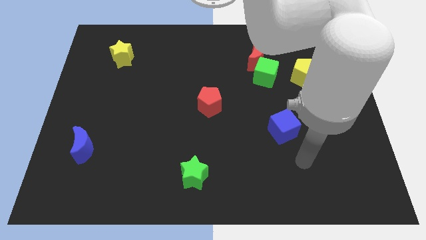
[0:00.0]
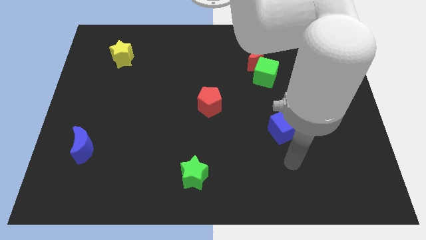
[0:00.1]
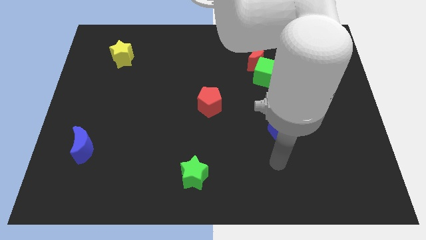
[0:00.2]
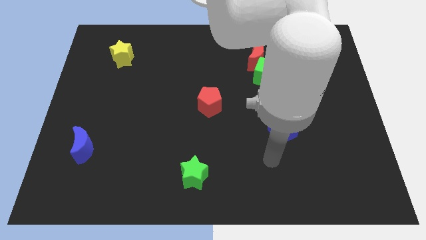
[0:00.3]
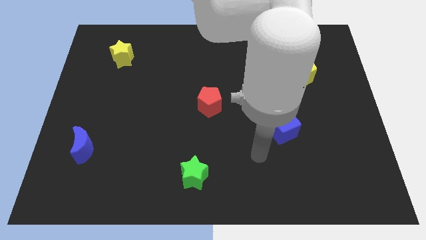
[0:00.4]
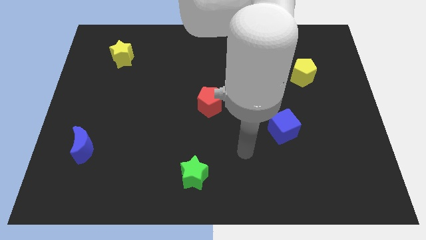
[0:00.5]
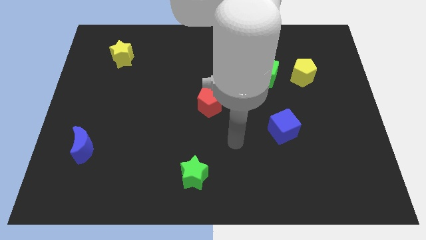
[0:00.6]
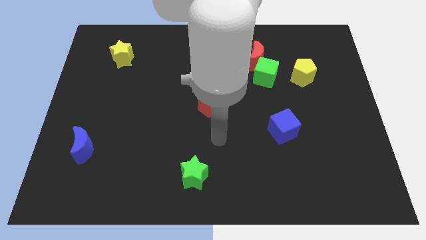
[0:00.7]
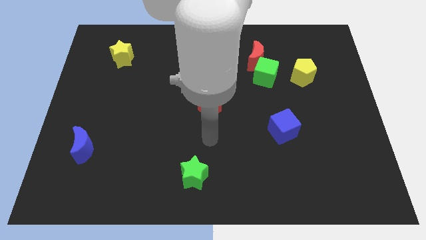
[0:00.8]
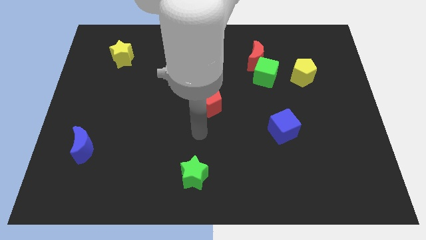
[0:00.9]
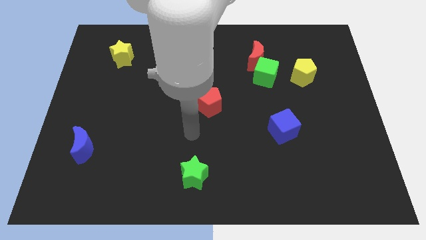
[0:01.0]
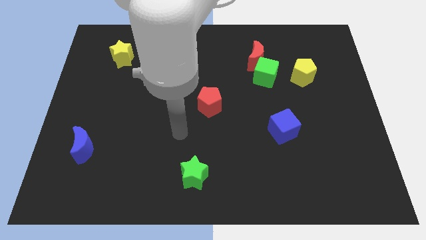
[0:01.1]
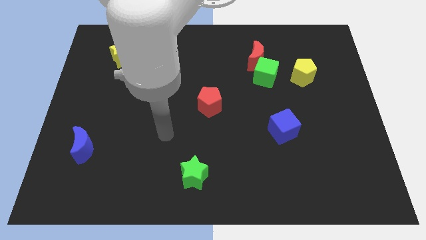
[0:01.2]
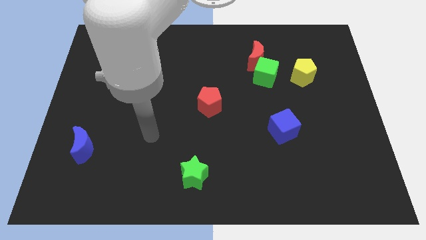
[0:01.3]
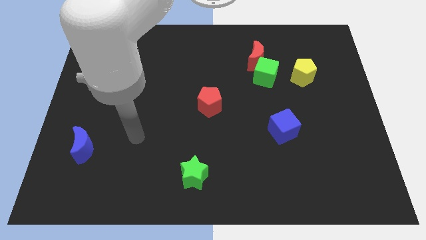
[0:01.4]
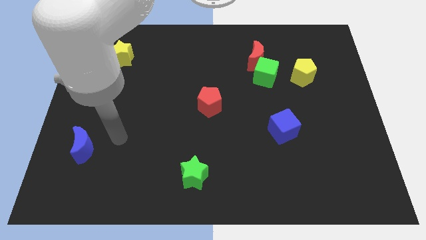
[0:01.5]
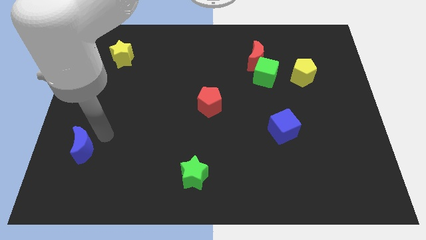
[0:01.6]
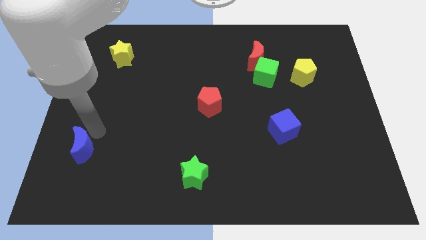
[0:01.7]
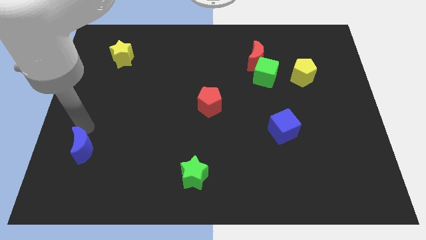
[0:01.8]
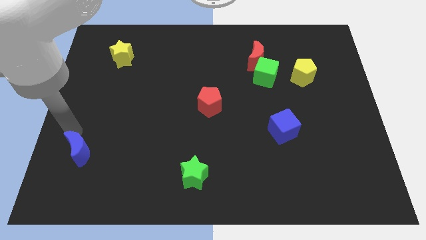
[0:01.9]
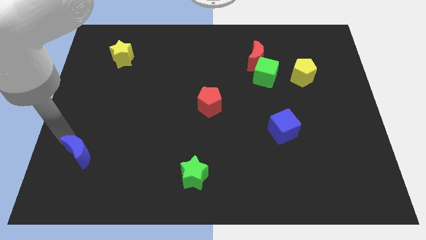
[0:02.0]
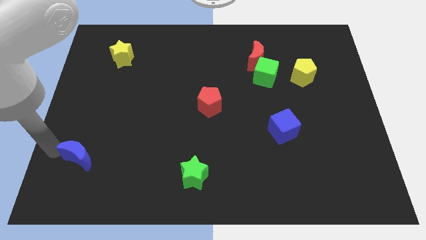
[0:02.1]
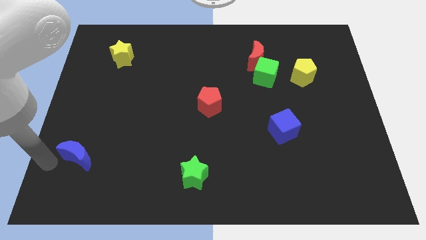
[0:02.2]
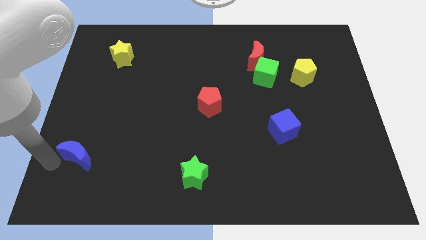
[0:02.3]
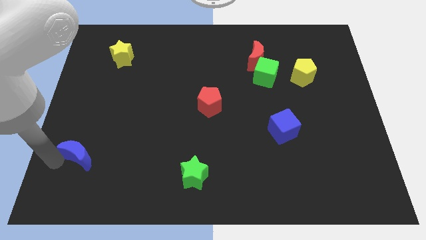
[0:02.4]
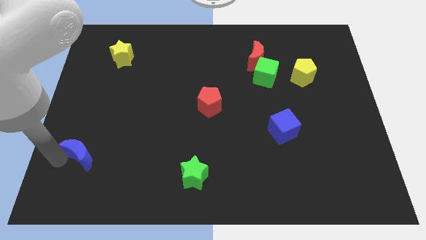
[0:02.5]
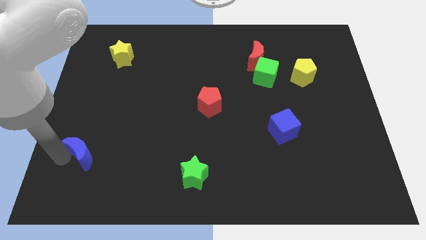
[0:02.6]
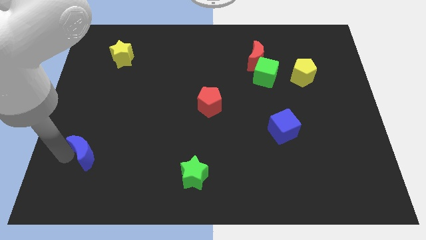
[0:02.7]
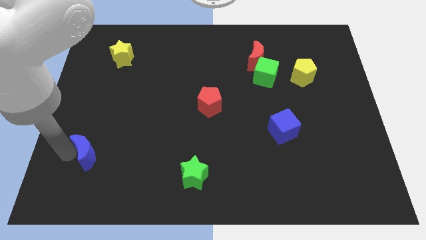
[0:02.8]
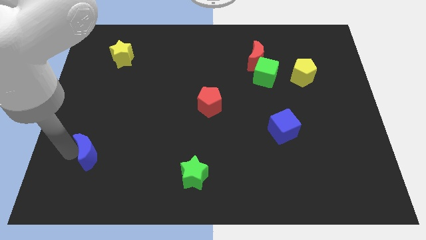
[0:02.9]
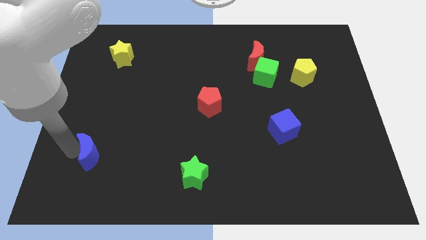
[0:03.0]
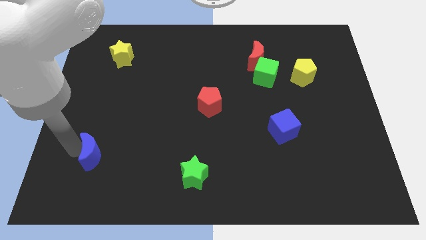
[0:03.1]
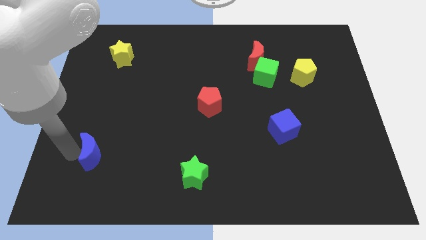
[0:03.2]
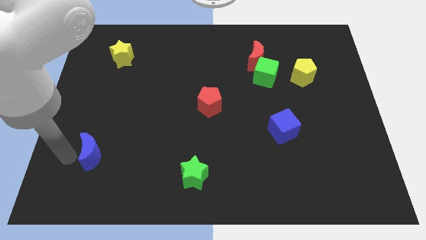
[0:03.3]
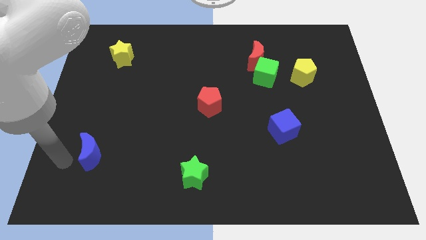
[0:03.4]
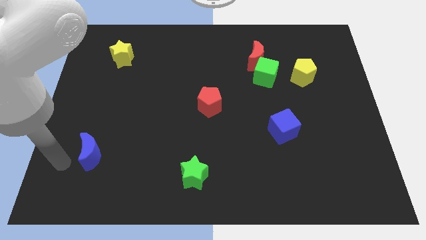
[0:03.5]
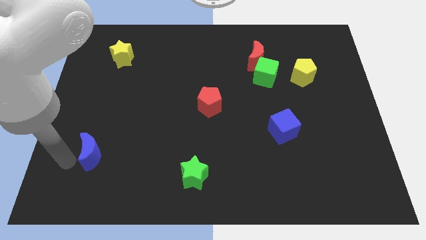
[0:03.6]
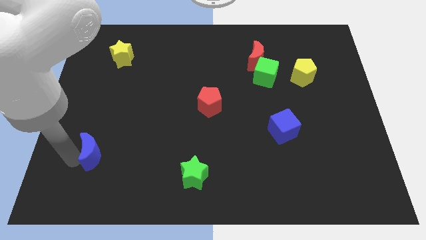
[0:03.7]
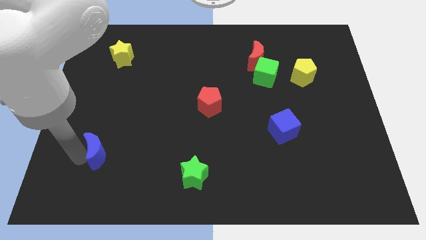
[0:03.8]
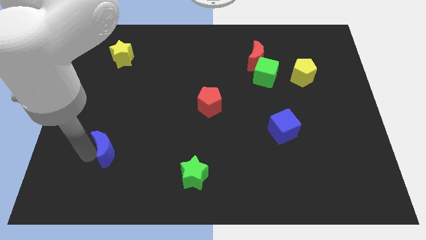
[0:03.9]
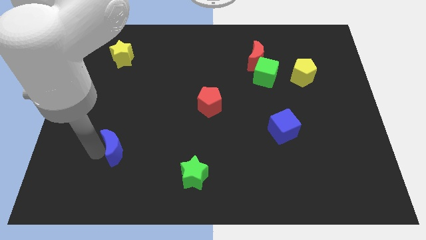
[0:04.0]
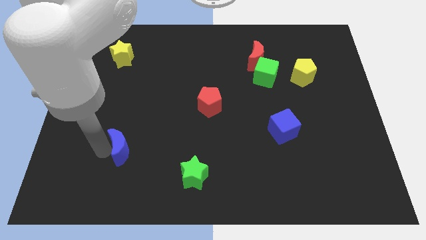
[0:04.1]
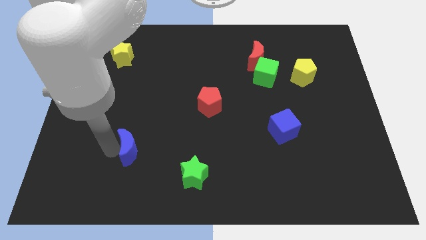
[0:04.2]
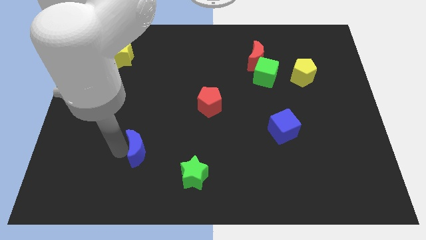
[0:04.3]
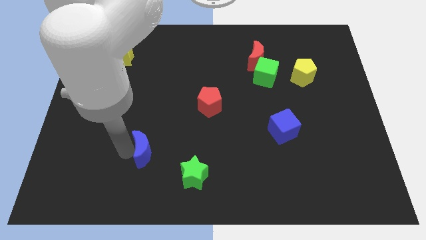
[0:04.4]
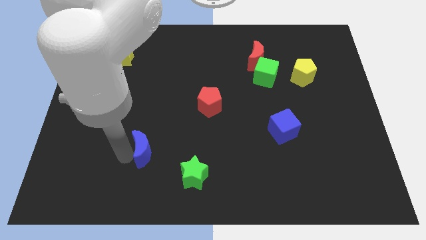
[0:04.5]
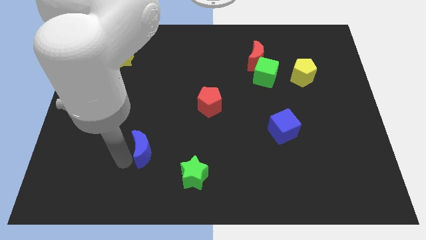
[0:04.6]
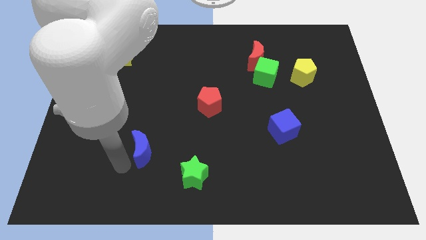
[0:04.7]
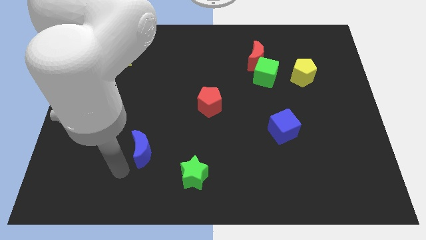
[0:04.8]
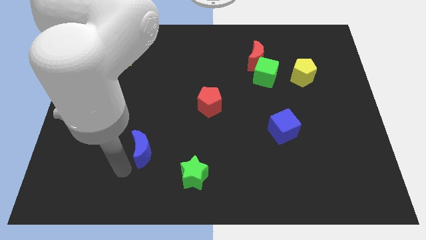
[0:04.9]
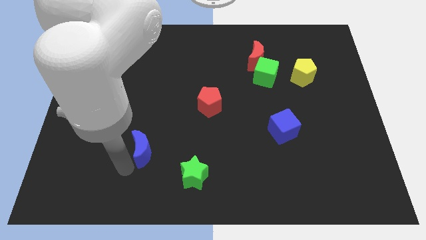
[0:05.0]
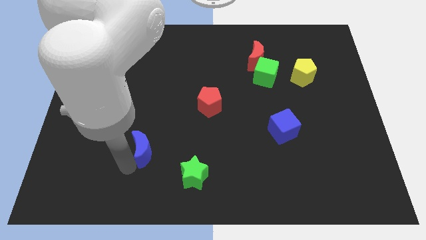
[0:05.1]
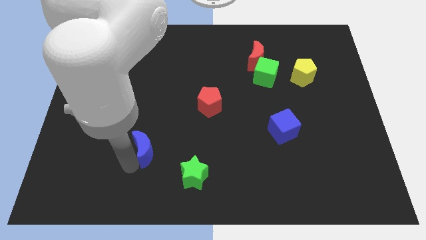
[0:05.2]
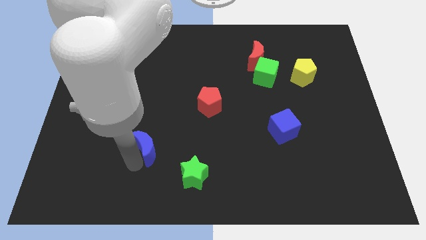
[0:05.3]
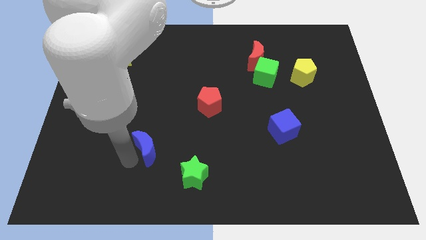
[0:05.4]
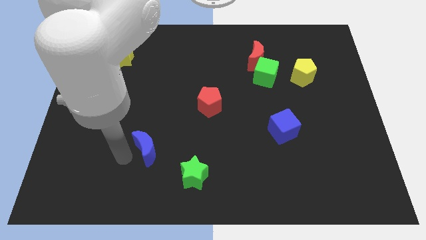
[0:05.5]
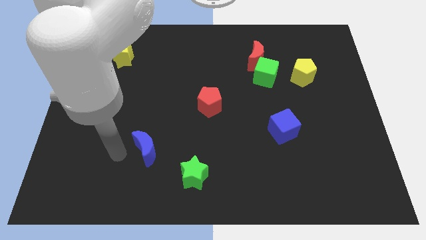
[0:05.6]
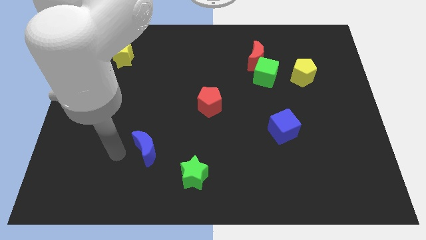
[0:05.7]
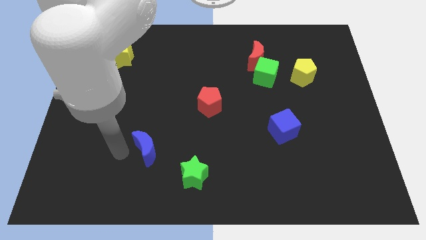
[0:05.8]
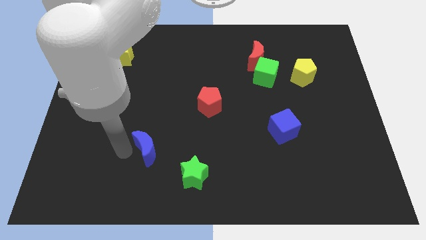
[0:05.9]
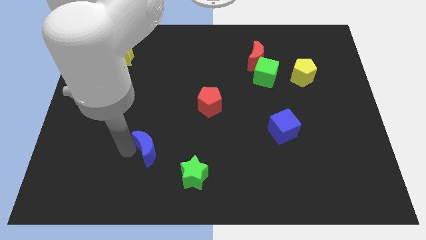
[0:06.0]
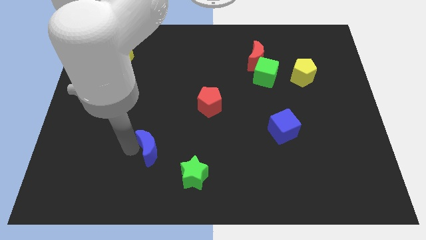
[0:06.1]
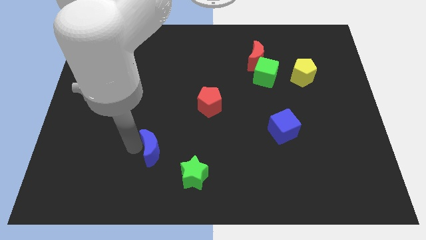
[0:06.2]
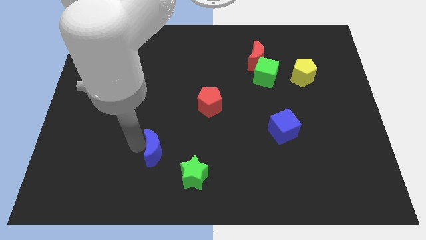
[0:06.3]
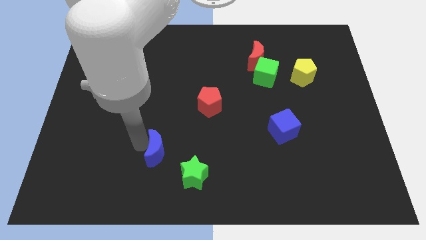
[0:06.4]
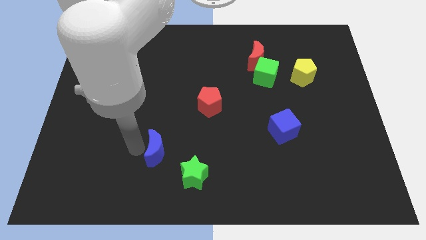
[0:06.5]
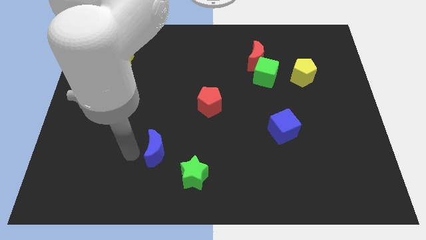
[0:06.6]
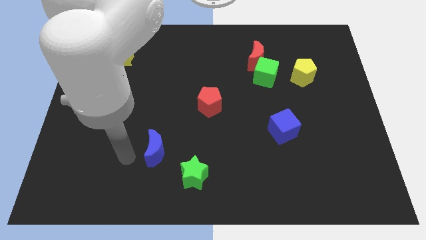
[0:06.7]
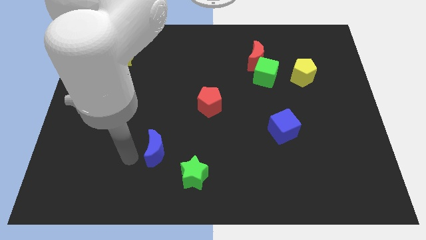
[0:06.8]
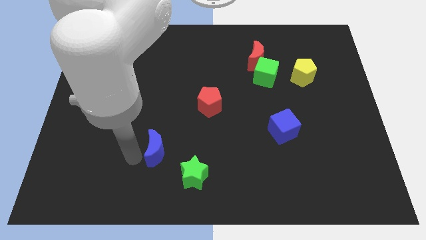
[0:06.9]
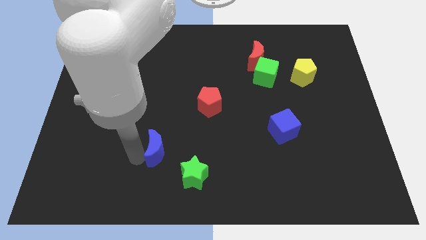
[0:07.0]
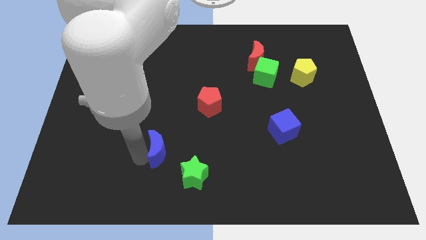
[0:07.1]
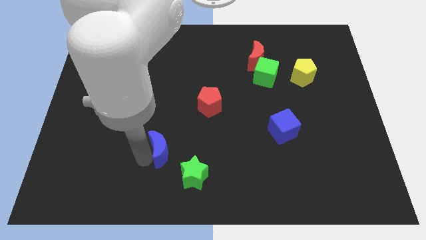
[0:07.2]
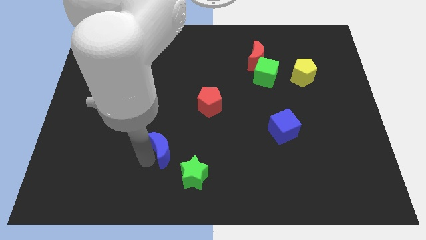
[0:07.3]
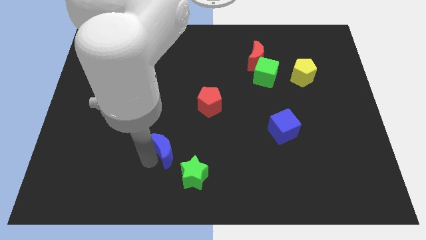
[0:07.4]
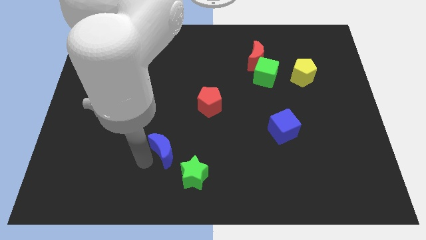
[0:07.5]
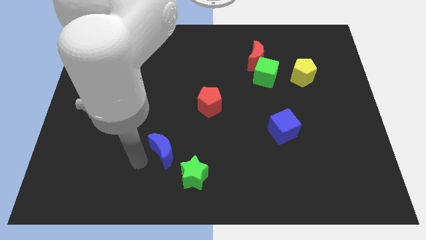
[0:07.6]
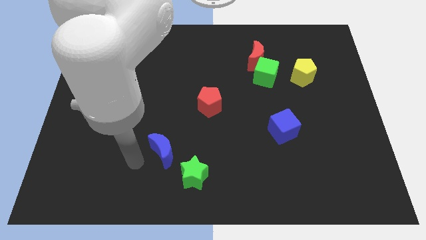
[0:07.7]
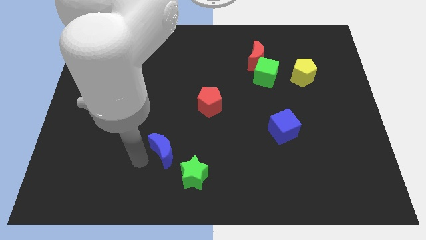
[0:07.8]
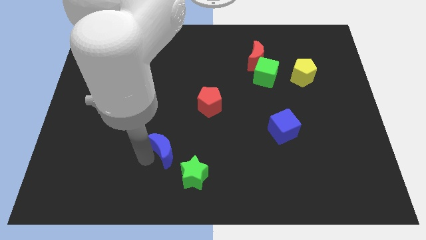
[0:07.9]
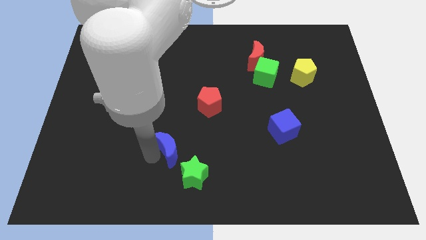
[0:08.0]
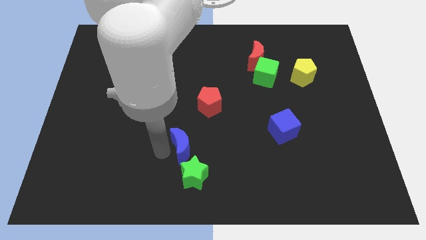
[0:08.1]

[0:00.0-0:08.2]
move the blue moon to the right
